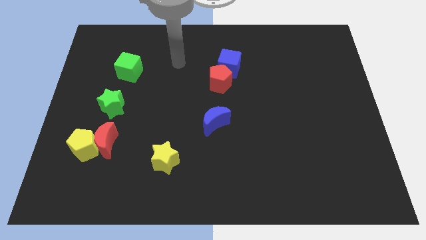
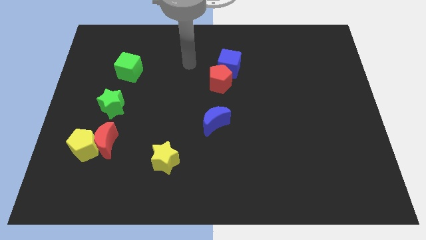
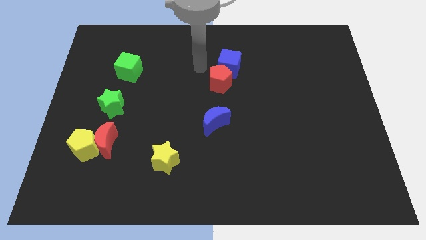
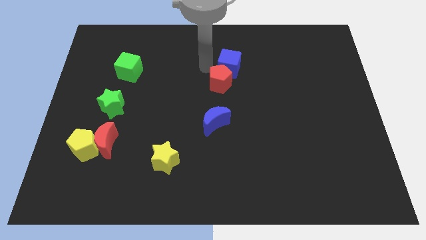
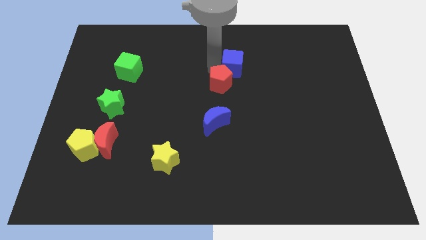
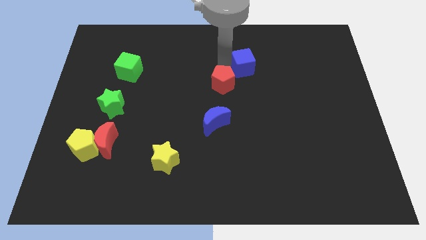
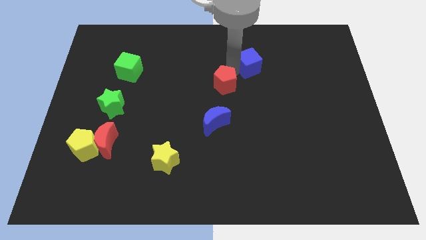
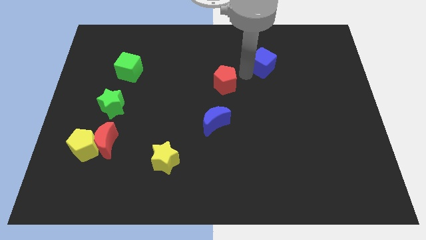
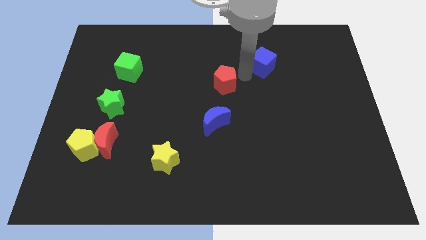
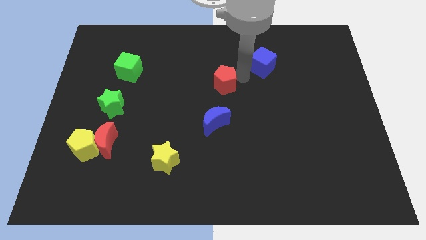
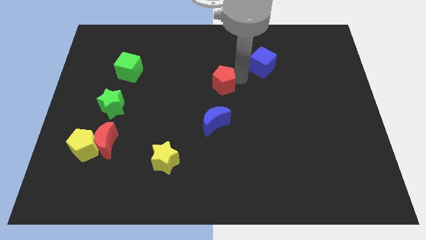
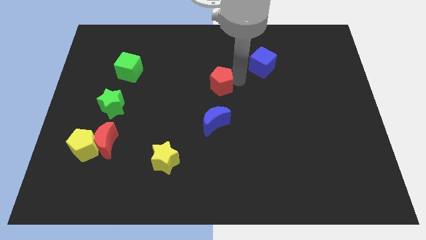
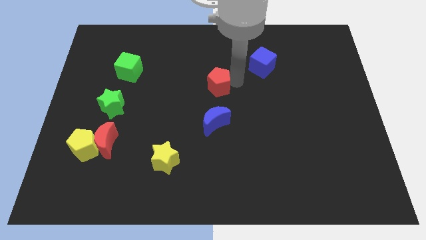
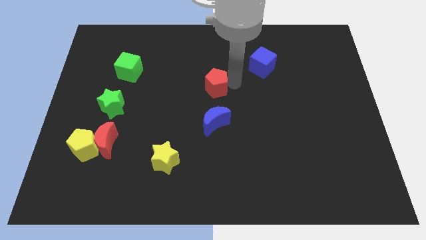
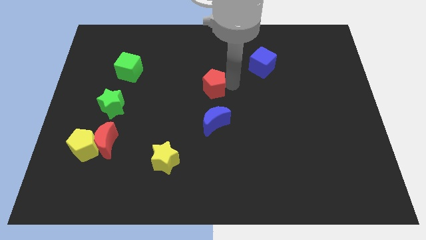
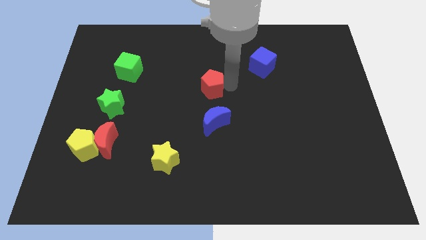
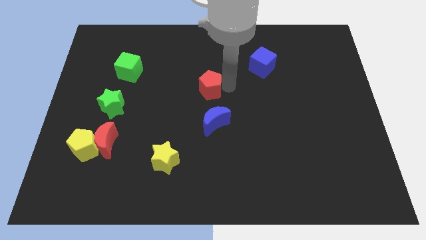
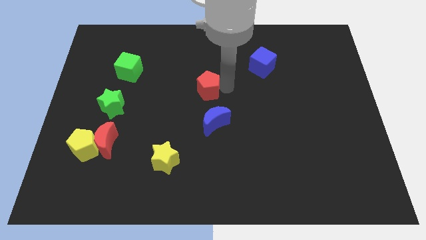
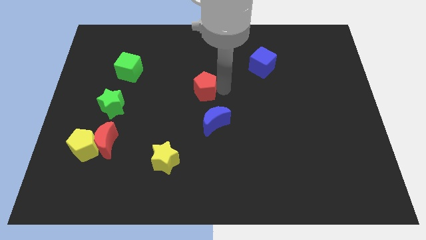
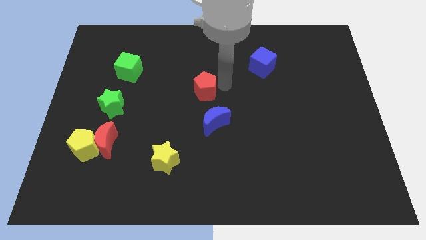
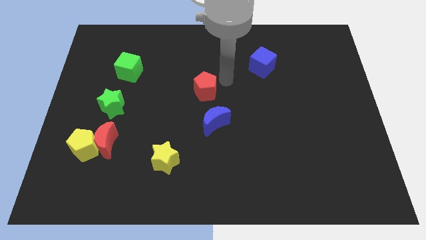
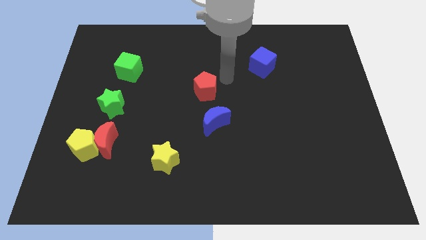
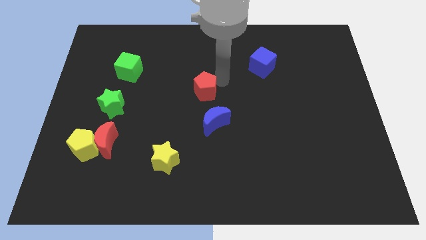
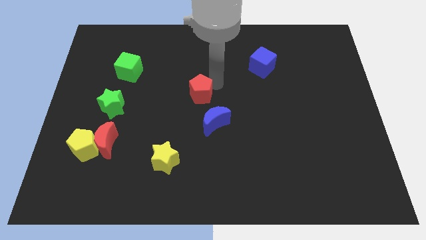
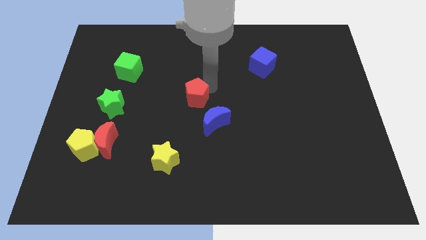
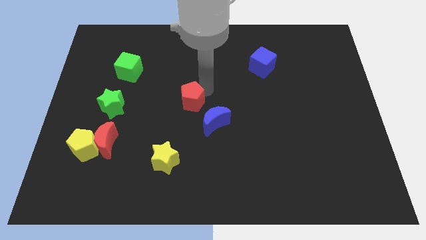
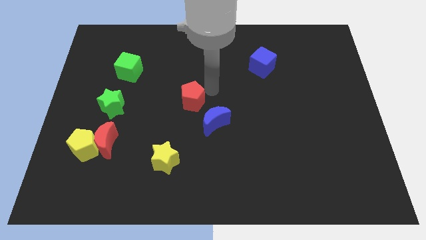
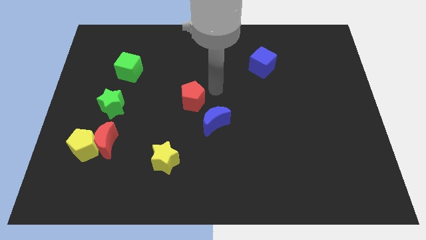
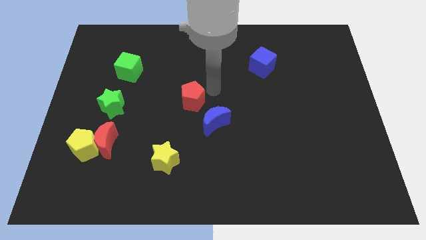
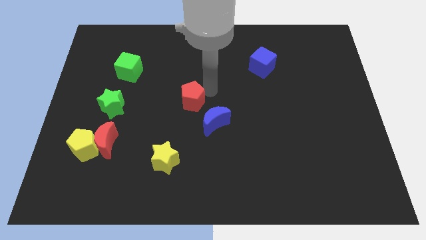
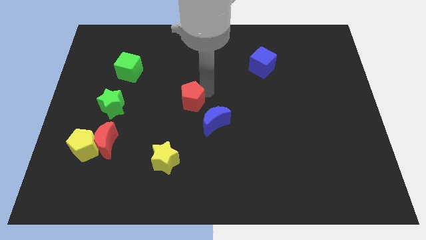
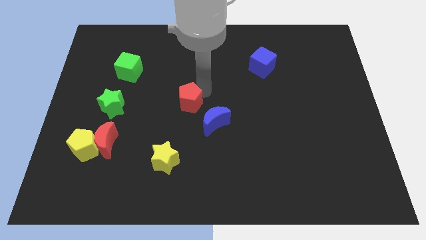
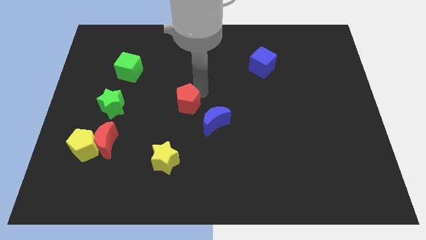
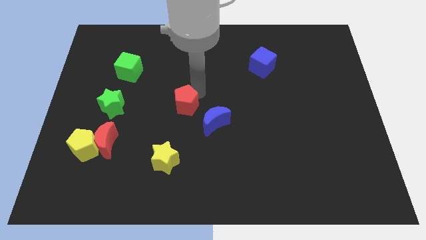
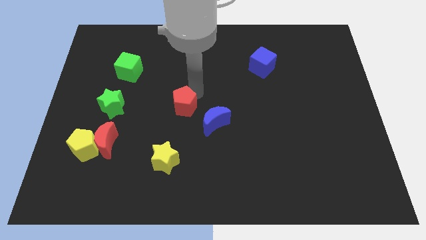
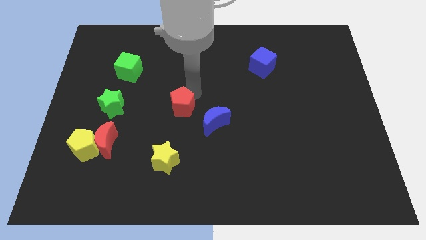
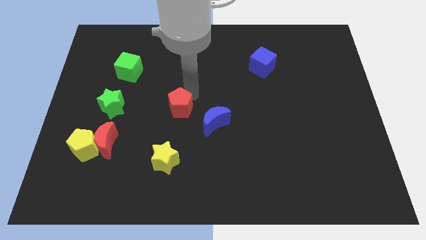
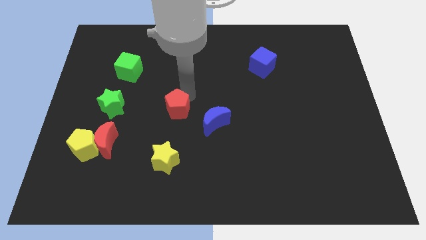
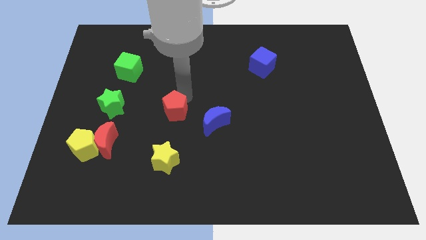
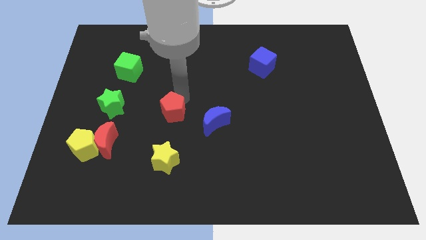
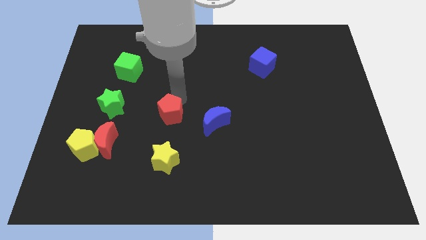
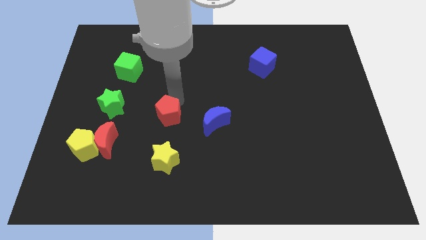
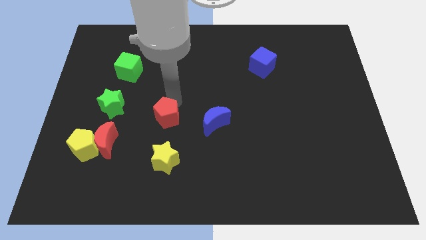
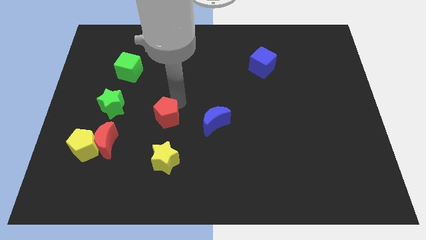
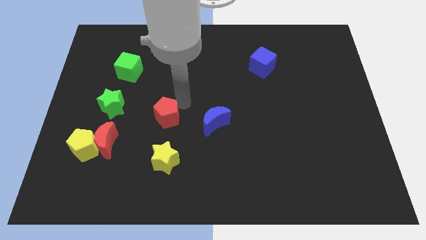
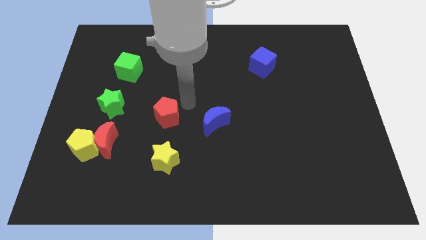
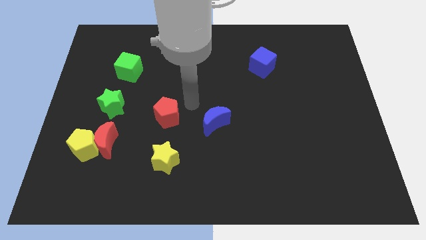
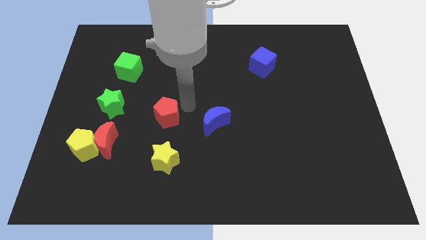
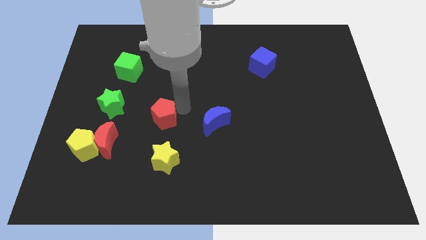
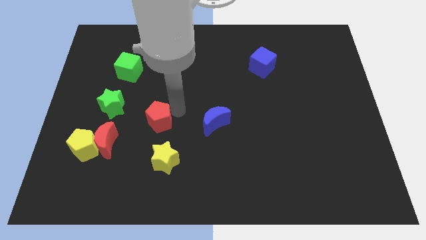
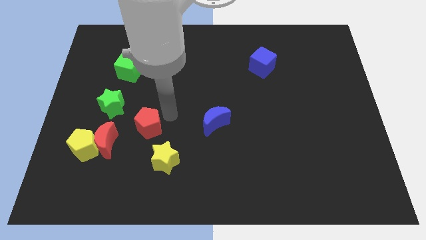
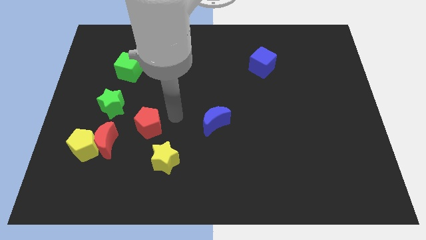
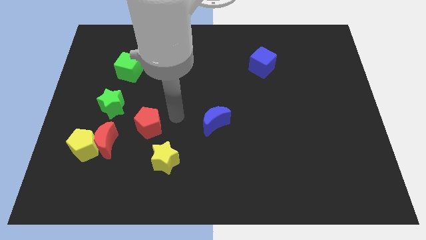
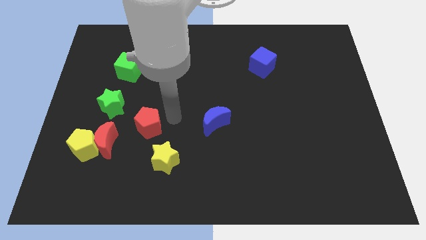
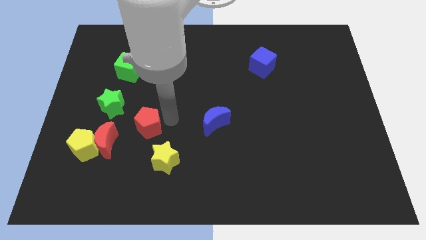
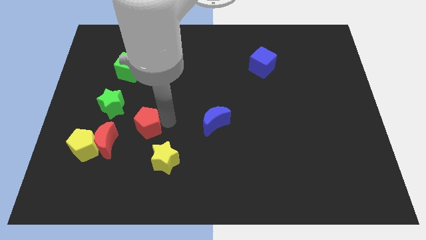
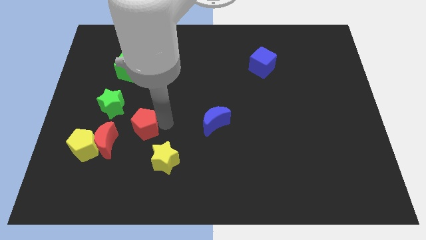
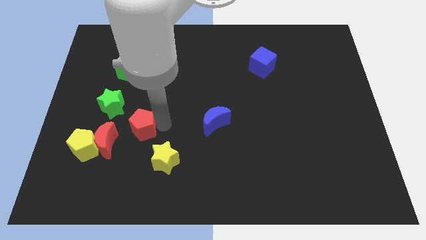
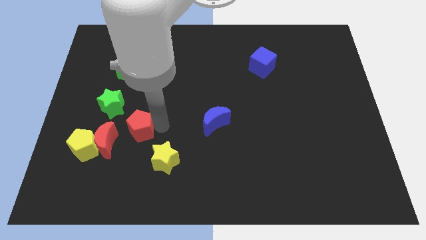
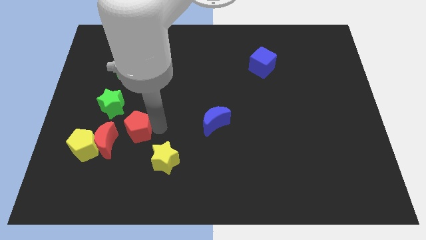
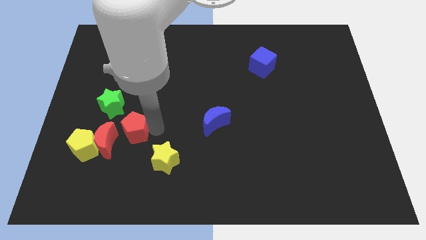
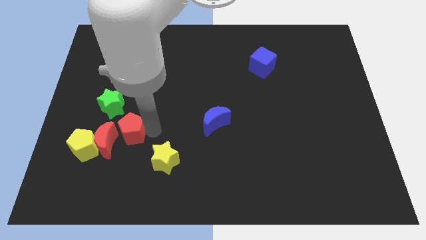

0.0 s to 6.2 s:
move the red pentagon next to the red moon

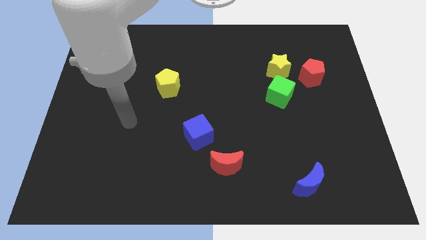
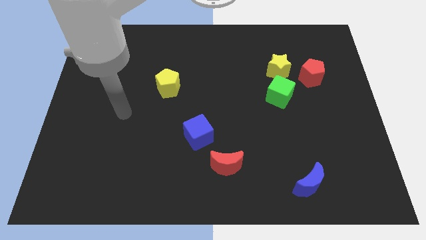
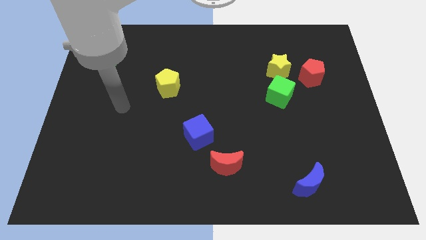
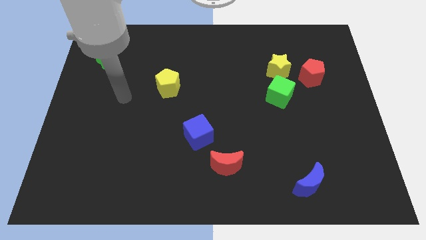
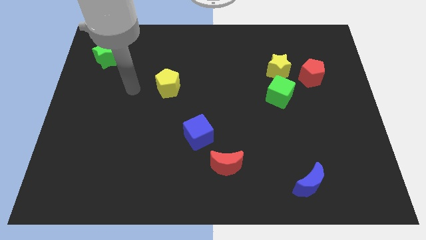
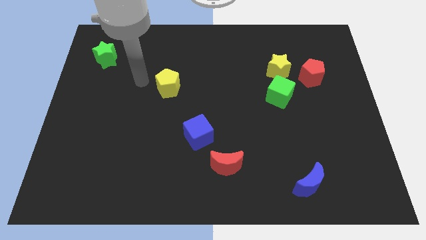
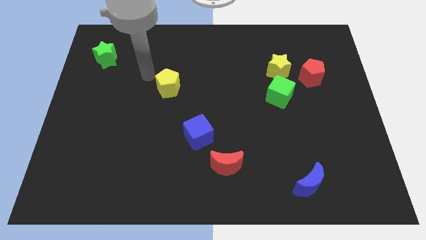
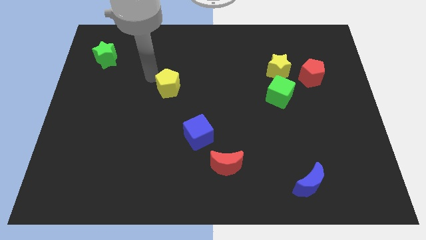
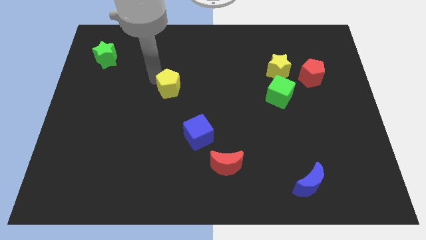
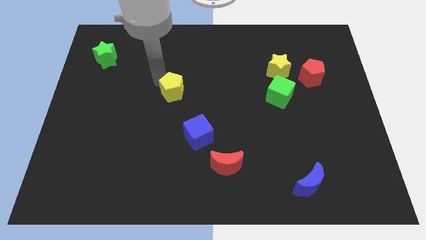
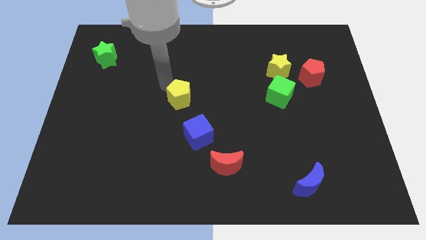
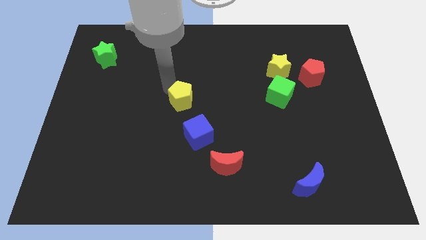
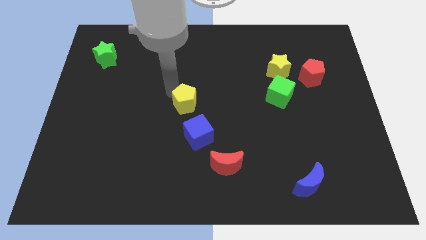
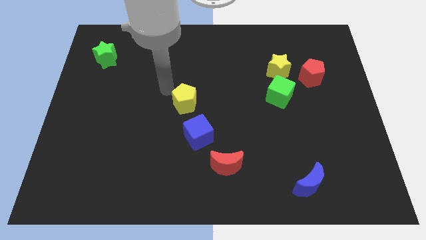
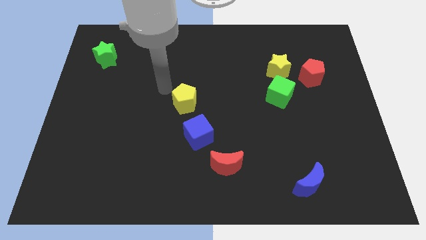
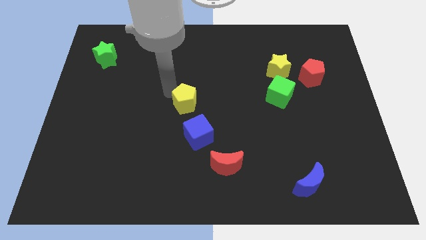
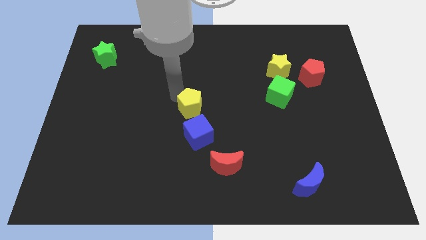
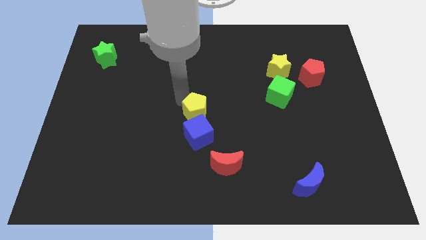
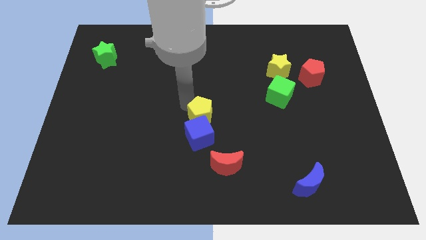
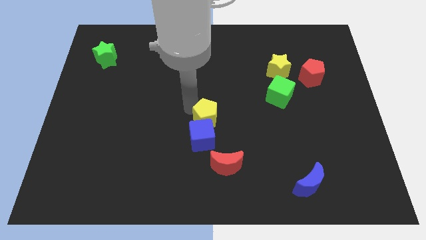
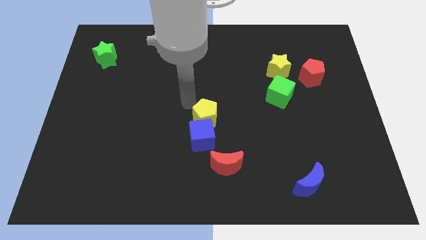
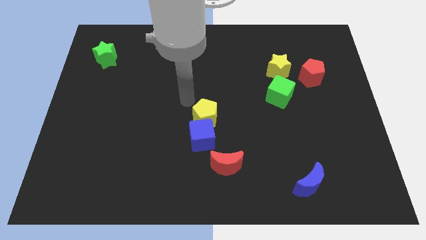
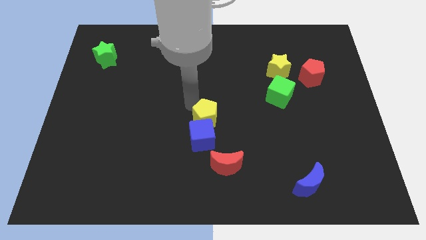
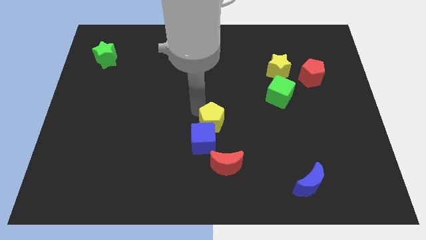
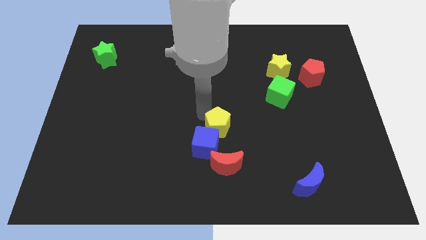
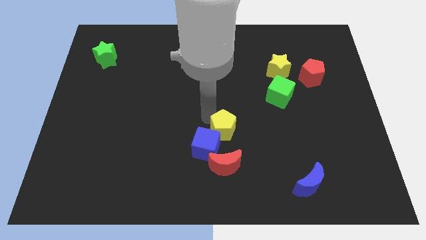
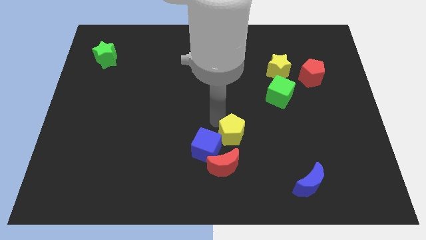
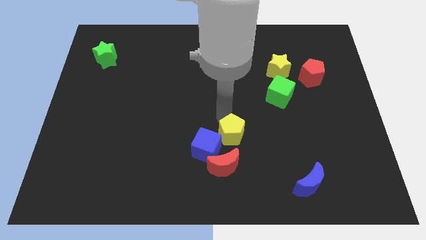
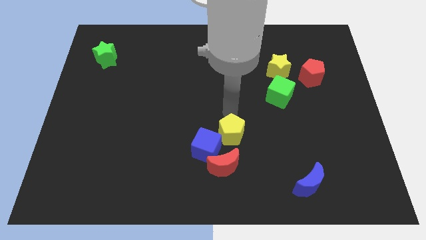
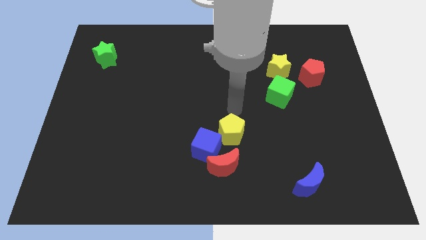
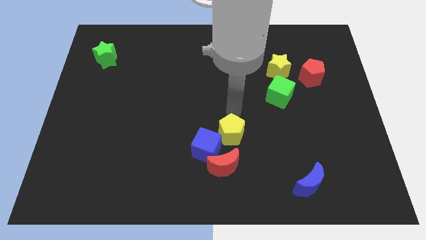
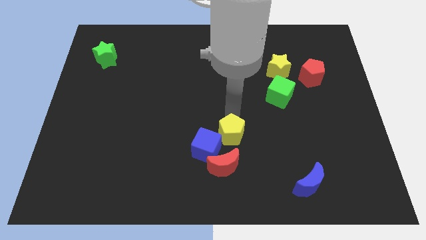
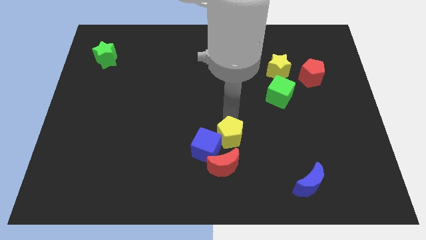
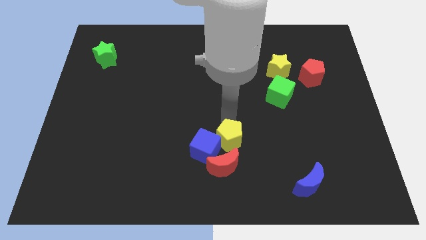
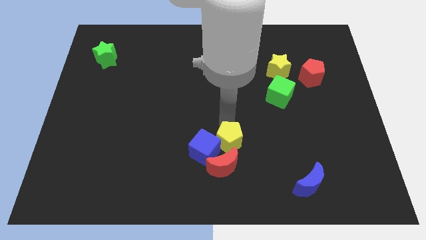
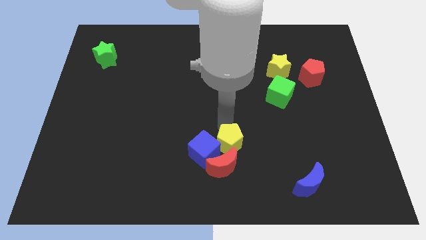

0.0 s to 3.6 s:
move the yellow pentagon to the red moon
